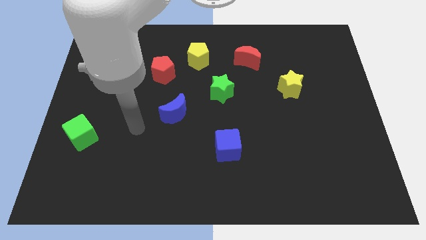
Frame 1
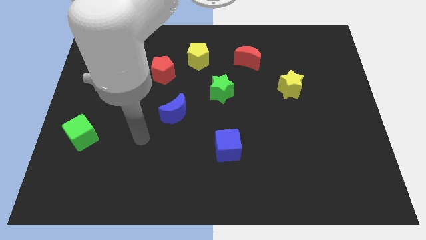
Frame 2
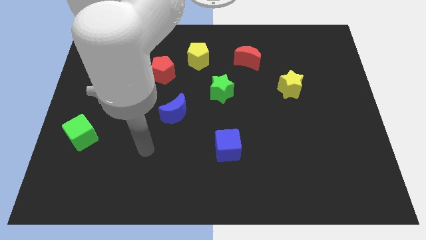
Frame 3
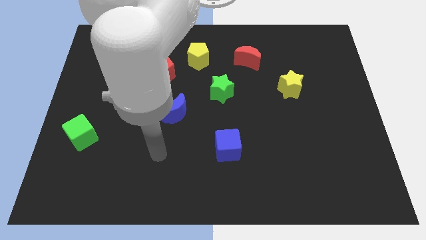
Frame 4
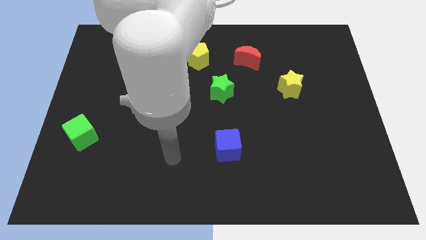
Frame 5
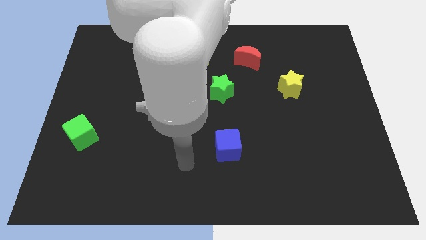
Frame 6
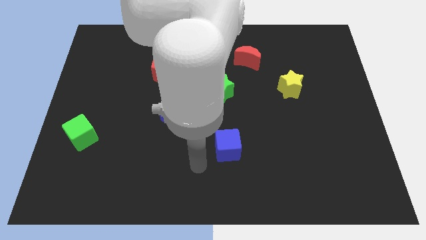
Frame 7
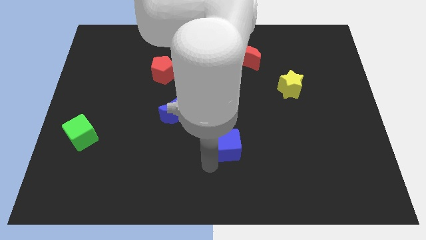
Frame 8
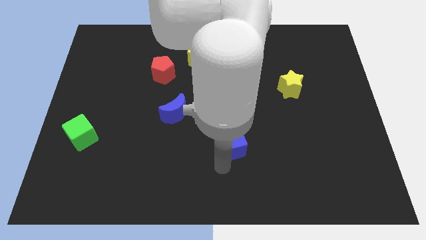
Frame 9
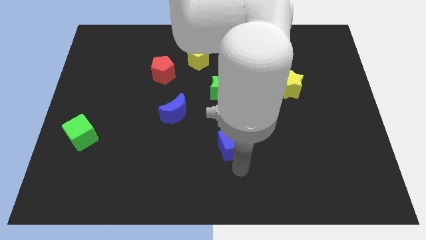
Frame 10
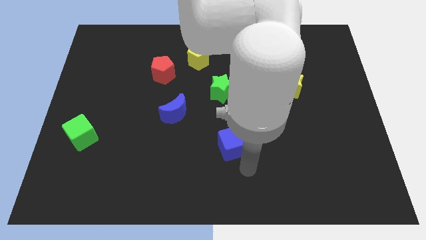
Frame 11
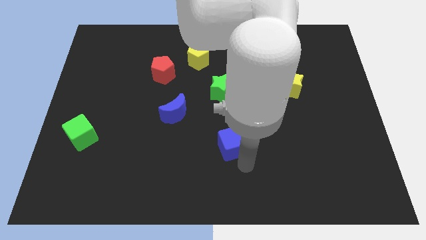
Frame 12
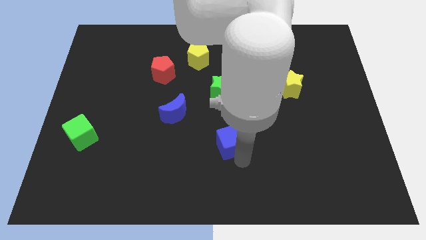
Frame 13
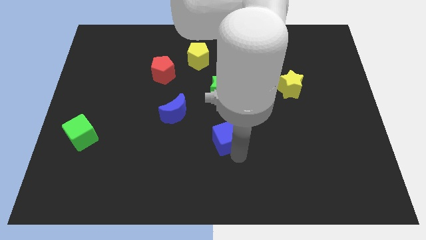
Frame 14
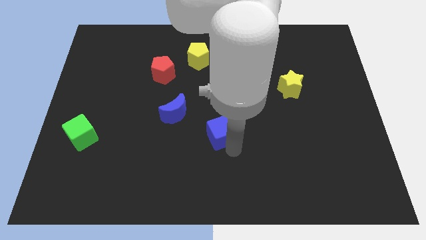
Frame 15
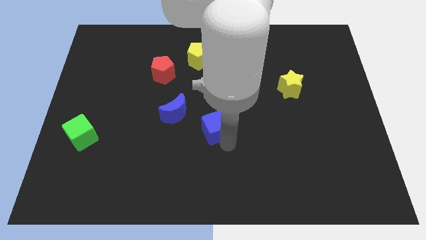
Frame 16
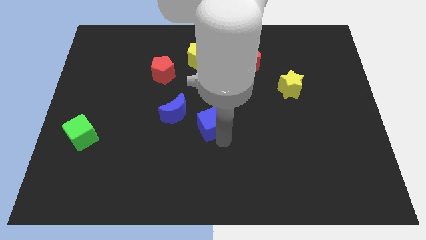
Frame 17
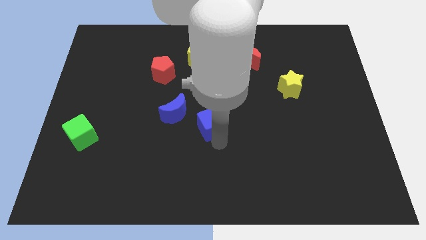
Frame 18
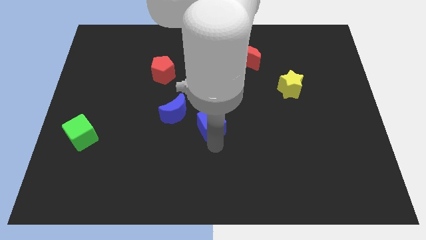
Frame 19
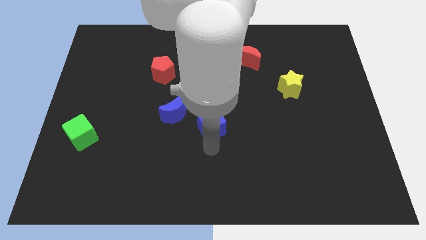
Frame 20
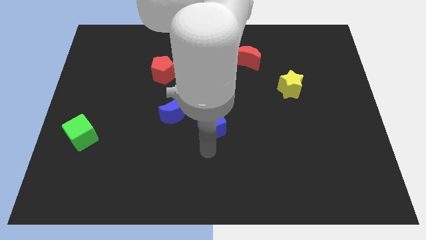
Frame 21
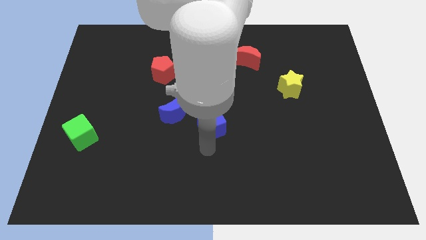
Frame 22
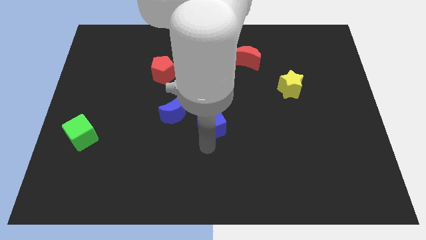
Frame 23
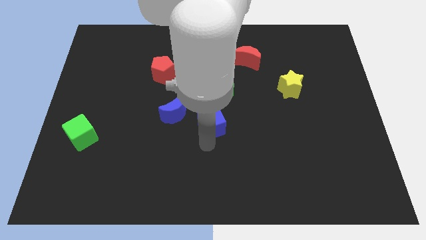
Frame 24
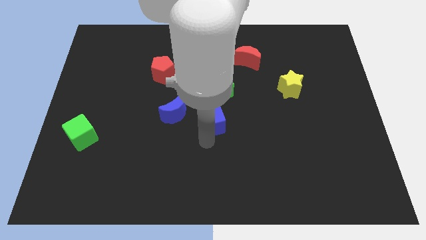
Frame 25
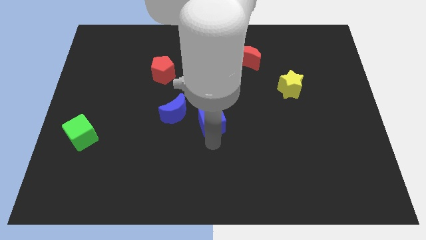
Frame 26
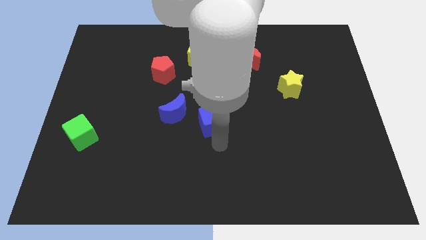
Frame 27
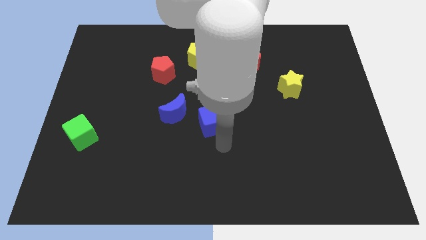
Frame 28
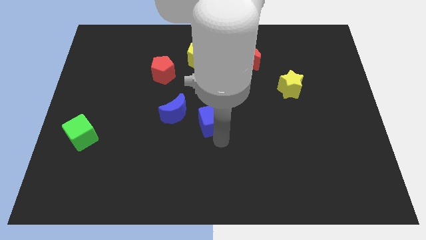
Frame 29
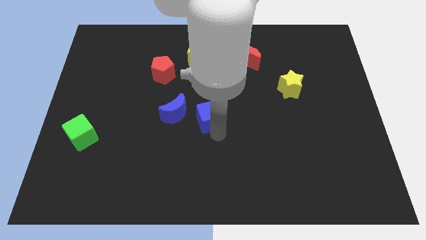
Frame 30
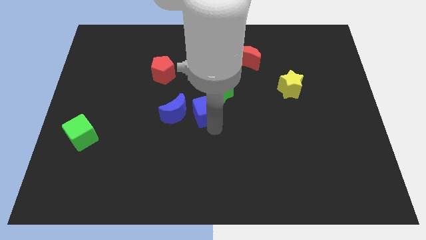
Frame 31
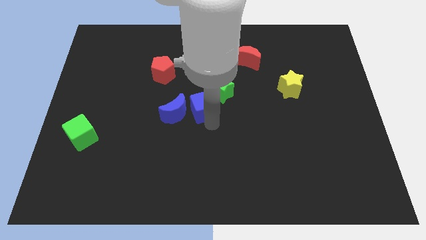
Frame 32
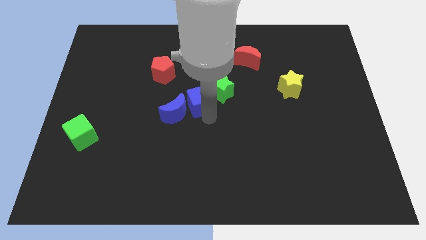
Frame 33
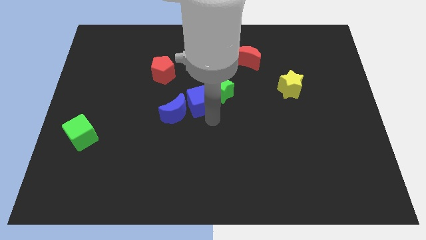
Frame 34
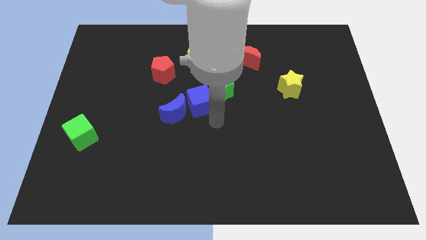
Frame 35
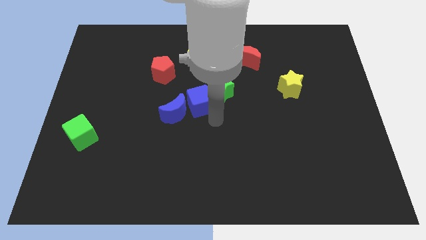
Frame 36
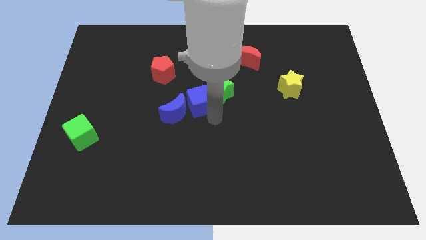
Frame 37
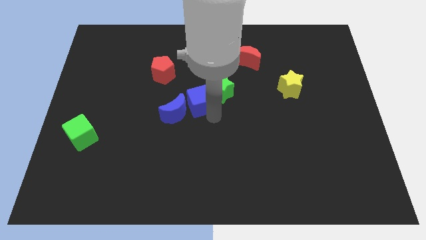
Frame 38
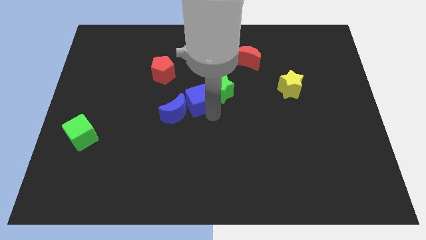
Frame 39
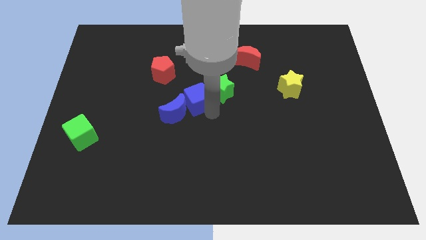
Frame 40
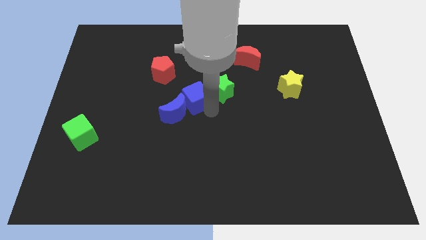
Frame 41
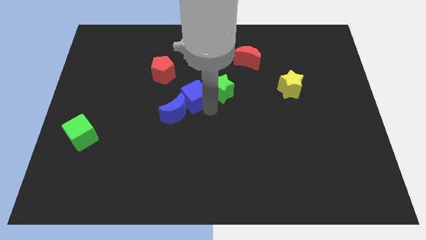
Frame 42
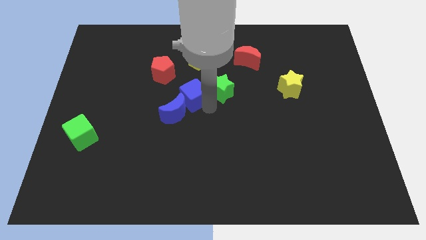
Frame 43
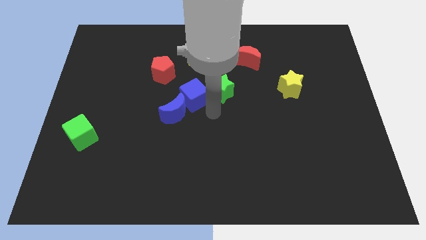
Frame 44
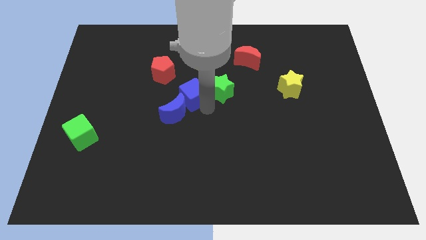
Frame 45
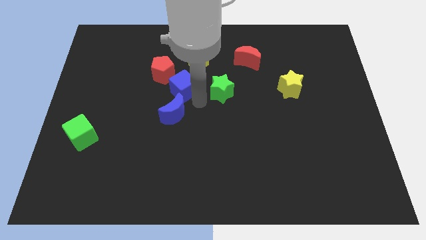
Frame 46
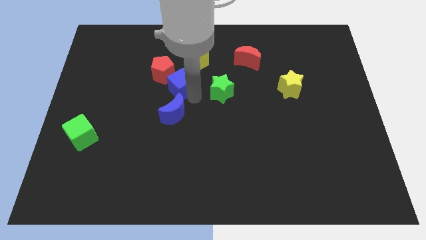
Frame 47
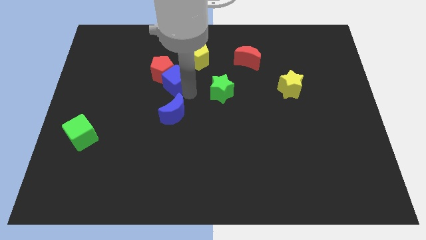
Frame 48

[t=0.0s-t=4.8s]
slide the blue cube next to the red pentagon

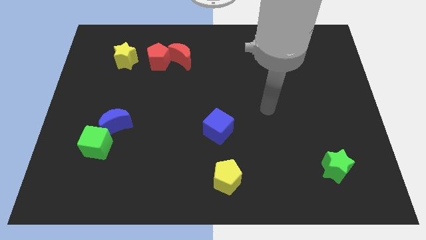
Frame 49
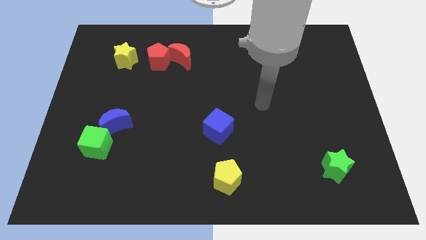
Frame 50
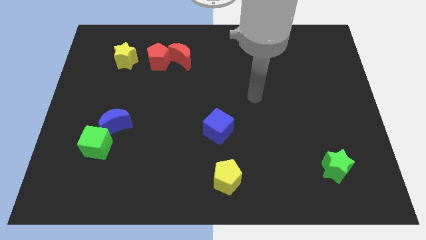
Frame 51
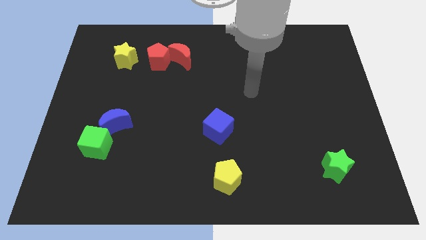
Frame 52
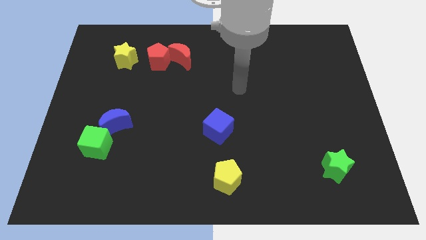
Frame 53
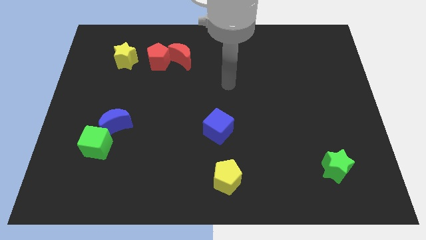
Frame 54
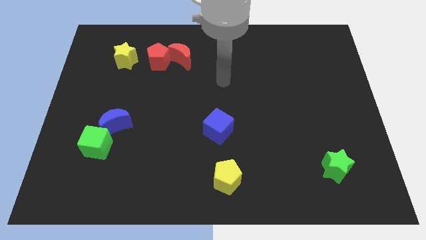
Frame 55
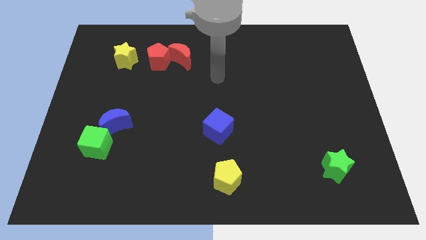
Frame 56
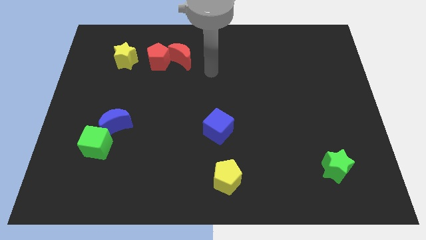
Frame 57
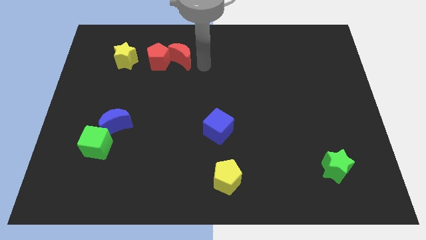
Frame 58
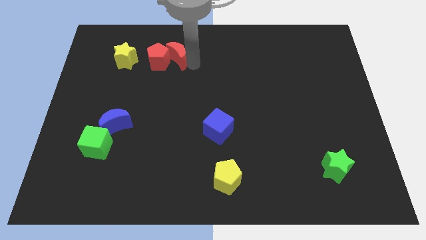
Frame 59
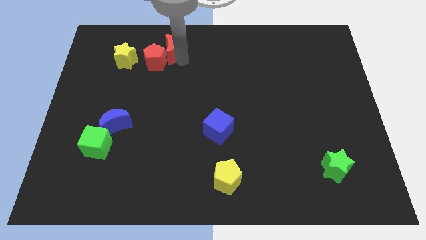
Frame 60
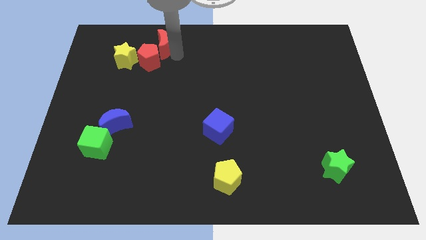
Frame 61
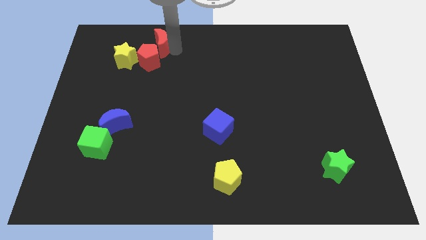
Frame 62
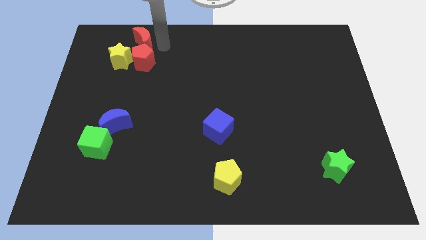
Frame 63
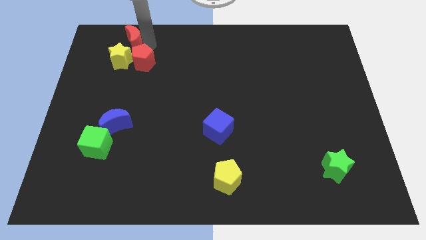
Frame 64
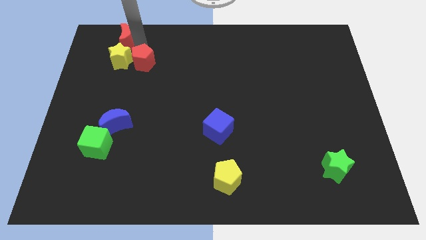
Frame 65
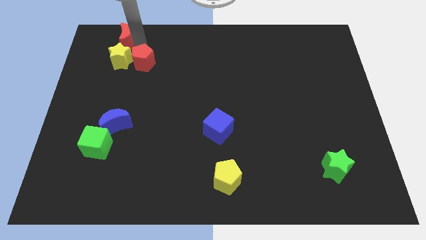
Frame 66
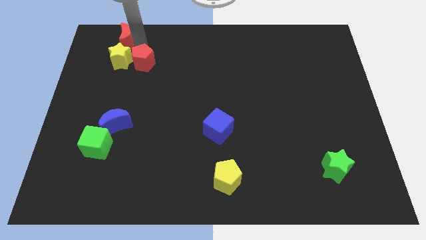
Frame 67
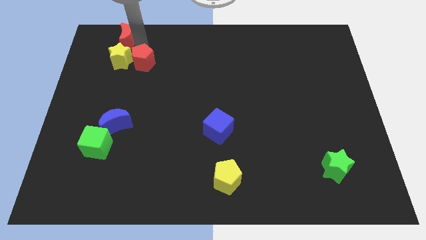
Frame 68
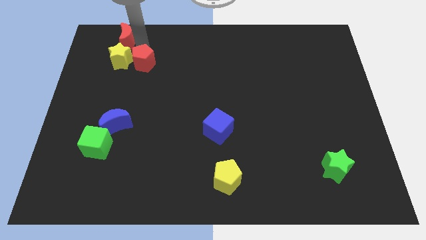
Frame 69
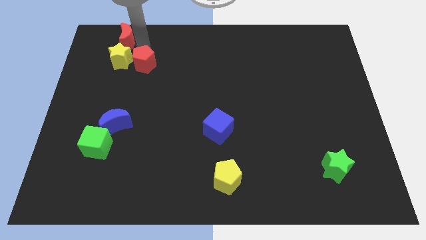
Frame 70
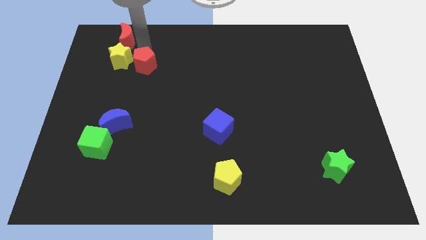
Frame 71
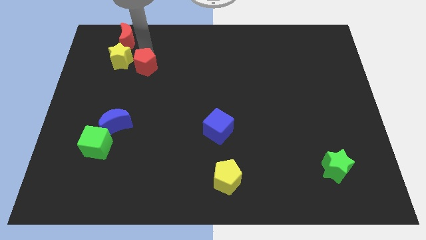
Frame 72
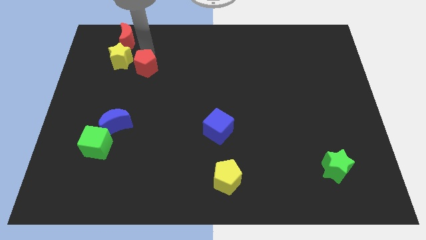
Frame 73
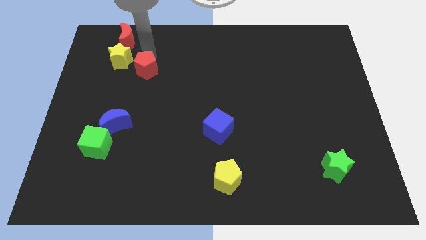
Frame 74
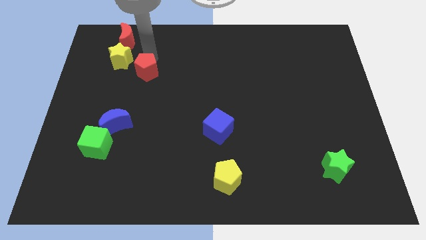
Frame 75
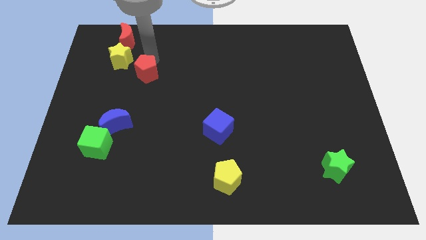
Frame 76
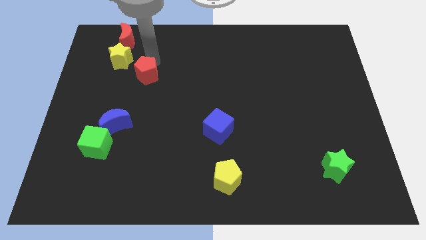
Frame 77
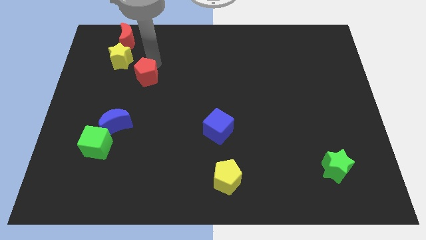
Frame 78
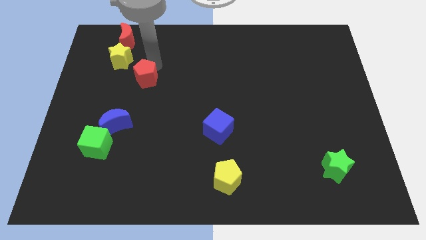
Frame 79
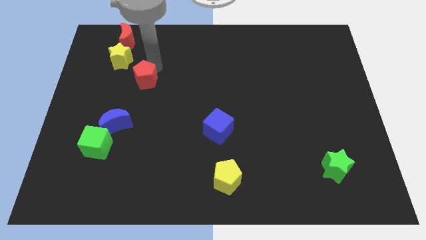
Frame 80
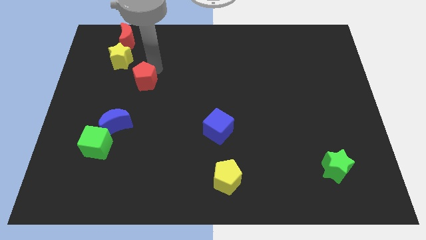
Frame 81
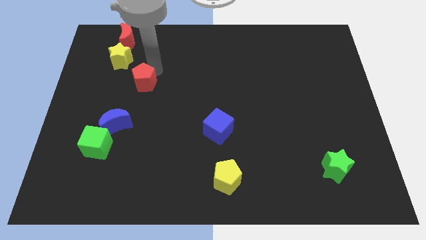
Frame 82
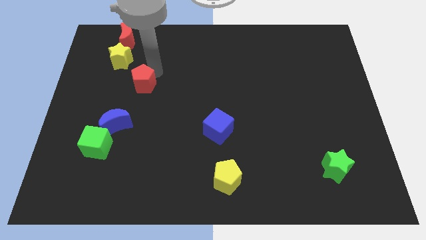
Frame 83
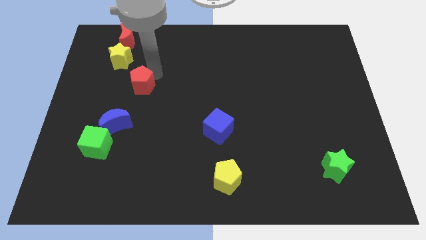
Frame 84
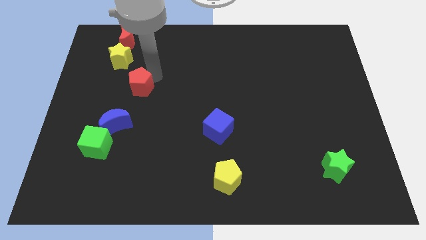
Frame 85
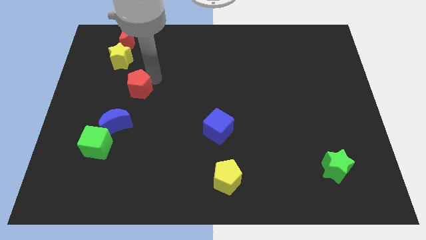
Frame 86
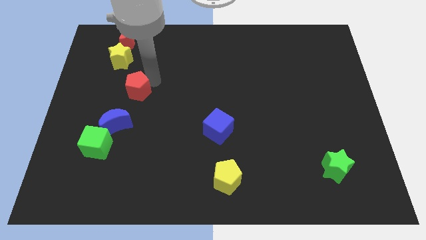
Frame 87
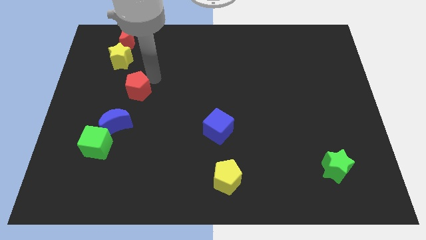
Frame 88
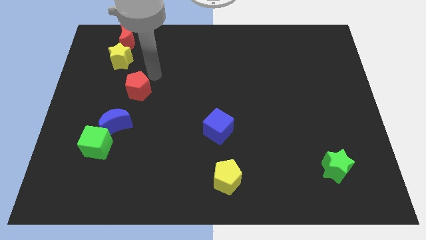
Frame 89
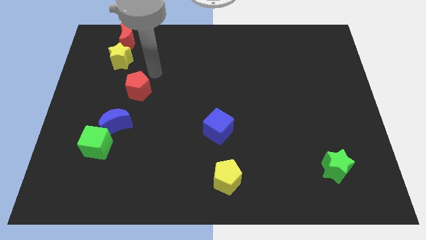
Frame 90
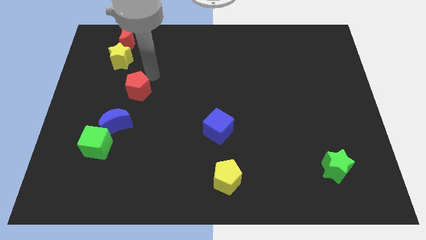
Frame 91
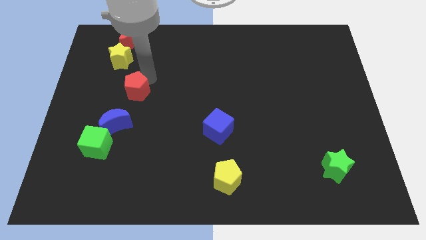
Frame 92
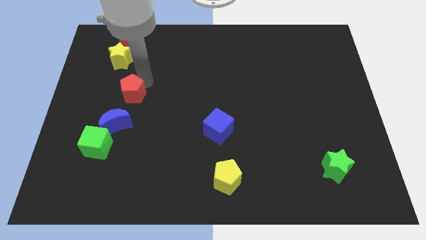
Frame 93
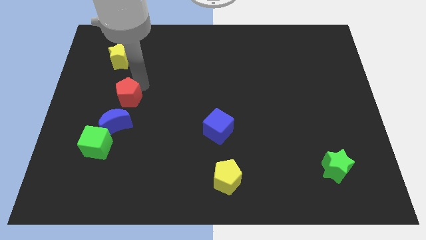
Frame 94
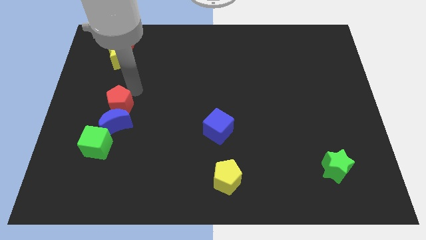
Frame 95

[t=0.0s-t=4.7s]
push the red pentagon next to the blue moon
